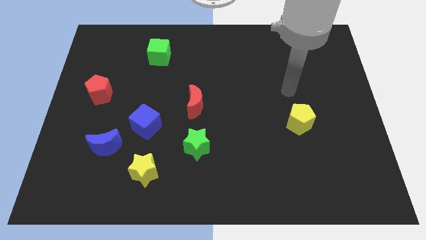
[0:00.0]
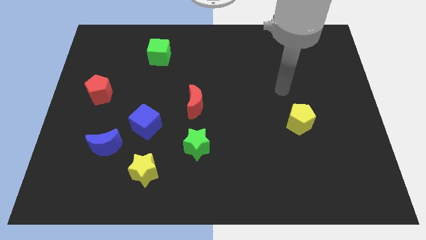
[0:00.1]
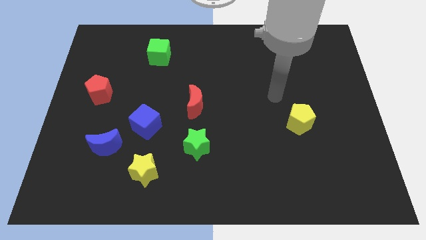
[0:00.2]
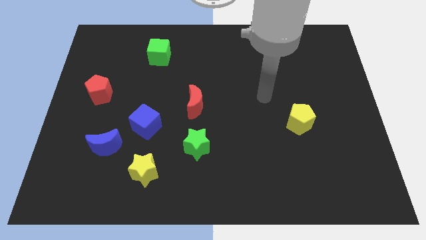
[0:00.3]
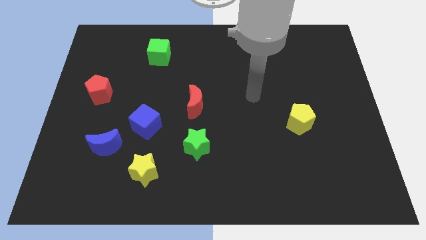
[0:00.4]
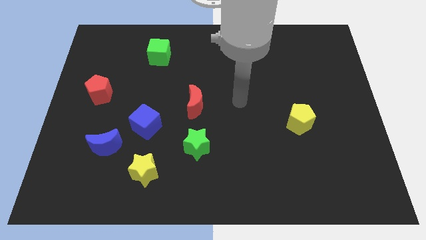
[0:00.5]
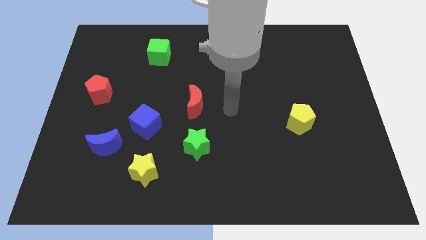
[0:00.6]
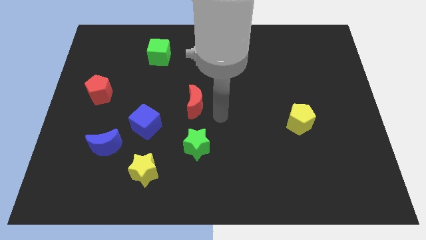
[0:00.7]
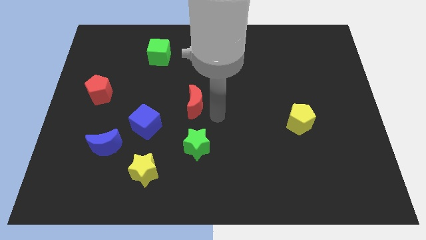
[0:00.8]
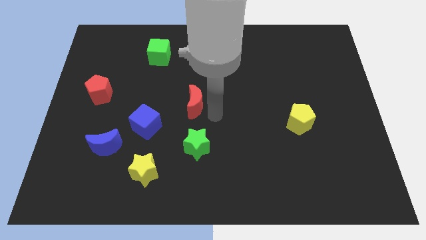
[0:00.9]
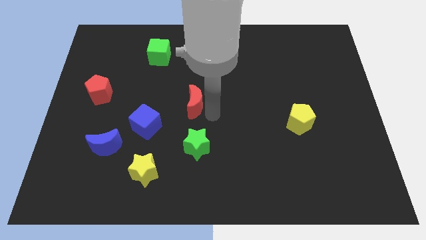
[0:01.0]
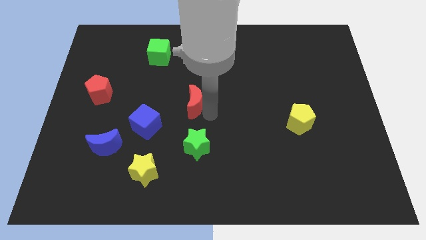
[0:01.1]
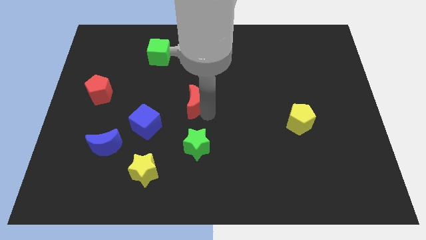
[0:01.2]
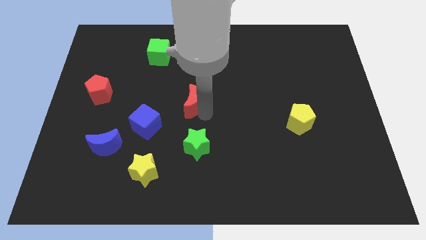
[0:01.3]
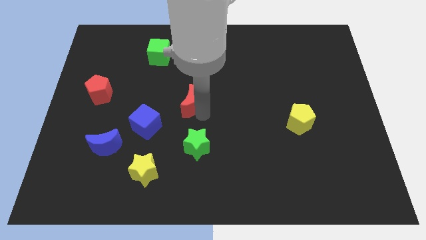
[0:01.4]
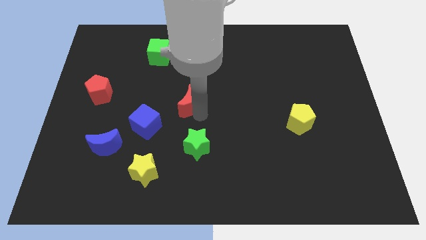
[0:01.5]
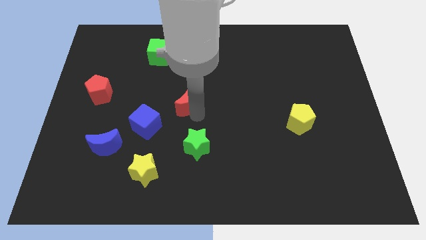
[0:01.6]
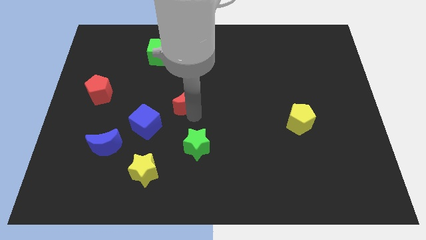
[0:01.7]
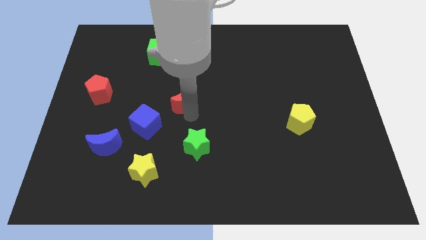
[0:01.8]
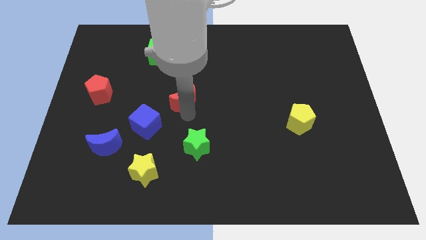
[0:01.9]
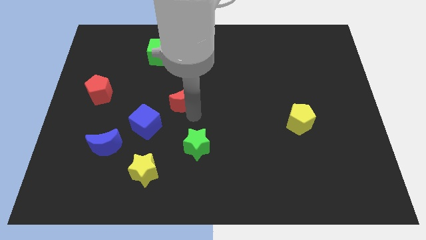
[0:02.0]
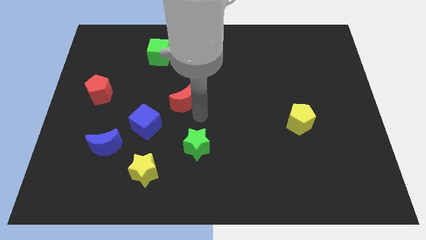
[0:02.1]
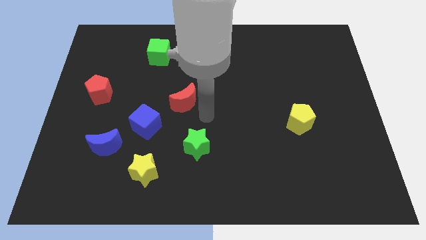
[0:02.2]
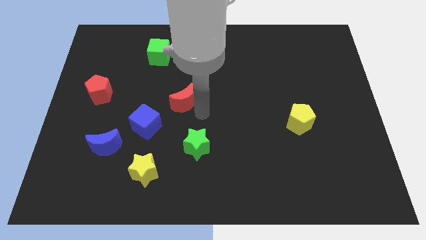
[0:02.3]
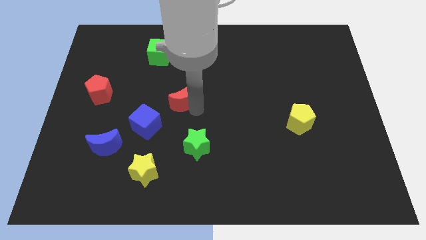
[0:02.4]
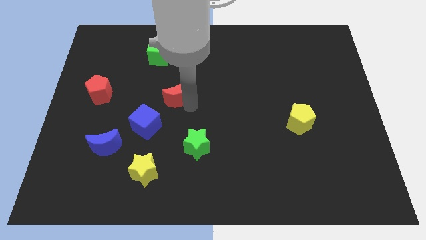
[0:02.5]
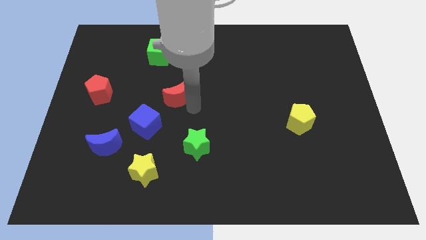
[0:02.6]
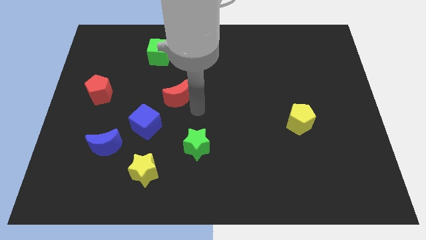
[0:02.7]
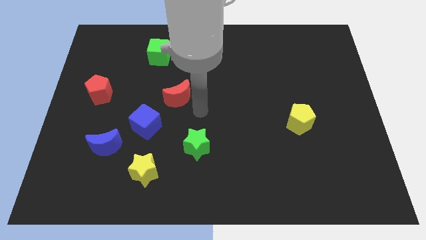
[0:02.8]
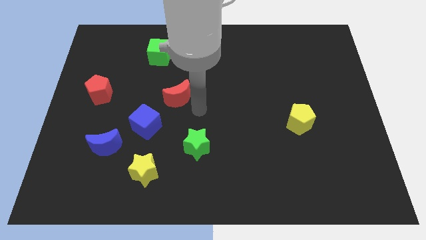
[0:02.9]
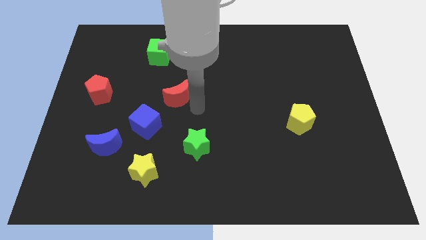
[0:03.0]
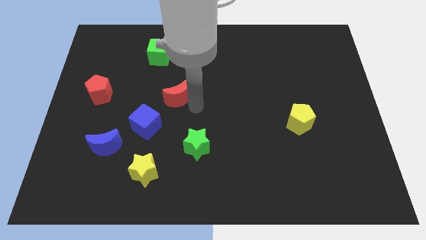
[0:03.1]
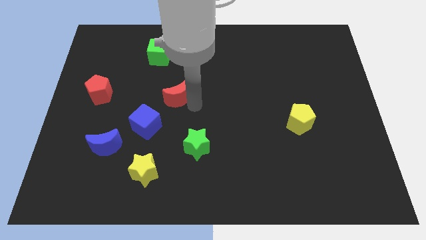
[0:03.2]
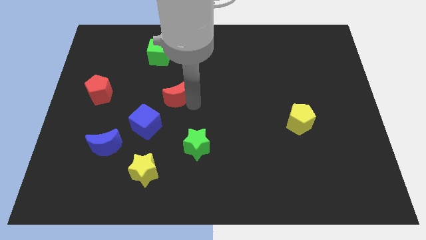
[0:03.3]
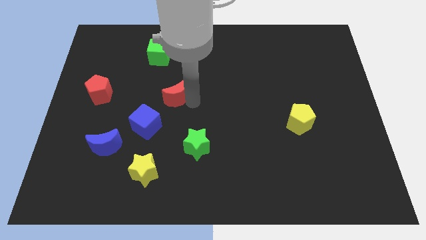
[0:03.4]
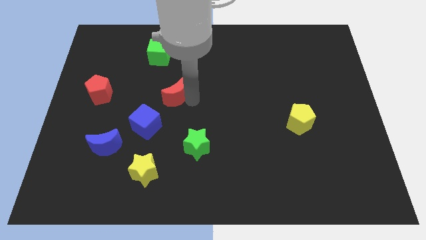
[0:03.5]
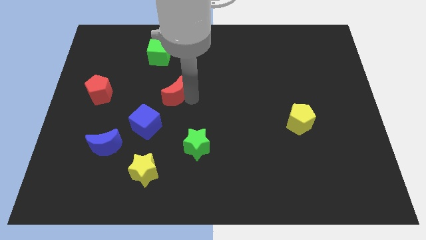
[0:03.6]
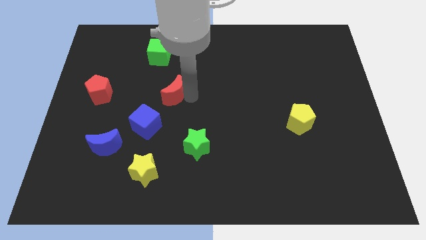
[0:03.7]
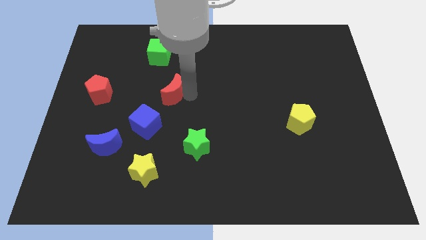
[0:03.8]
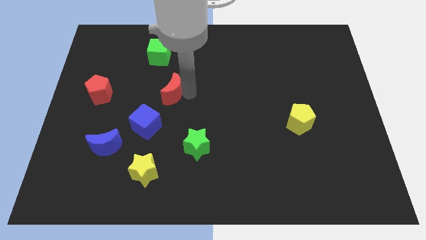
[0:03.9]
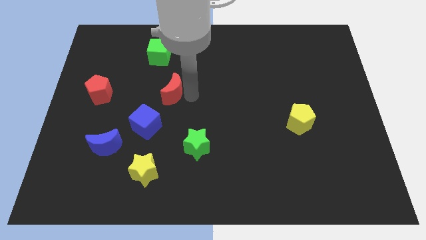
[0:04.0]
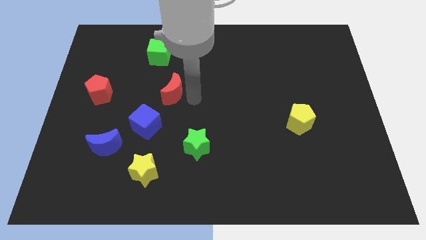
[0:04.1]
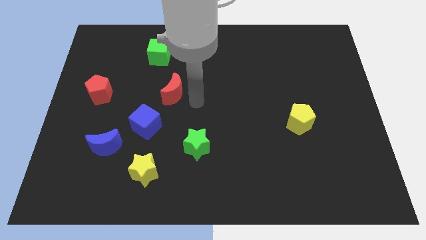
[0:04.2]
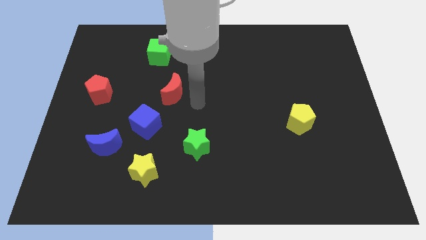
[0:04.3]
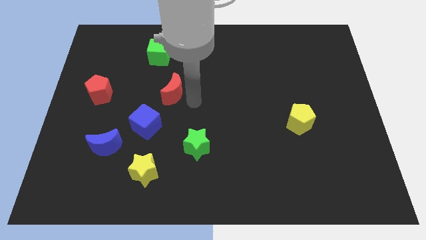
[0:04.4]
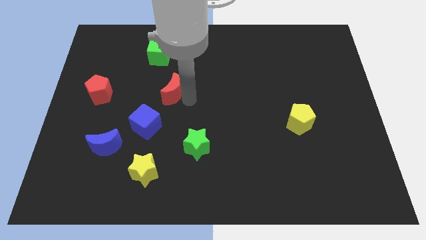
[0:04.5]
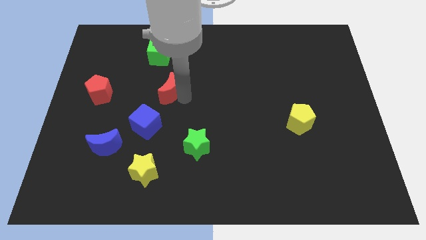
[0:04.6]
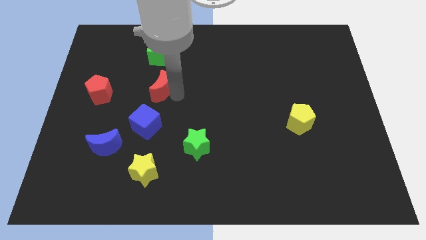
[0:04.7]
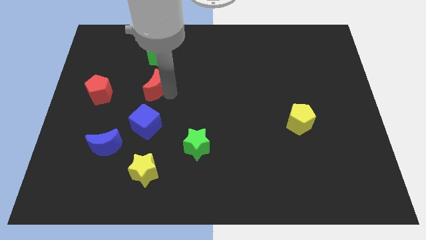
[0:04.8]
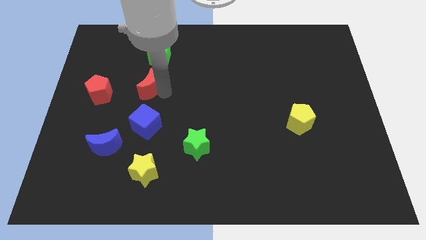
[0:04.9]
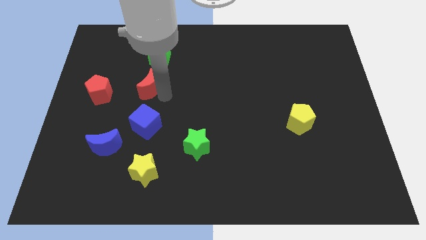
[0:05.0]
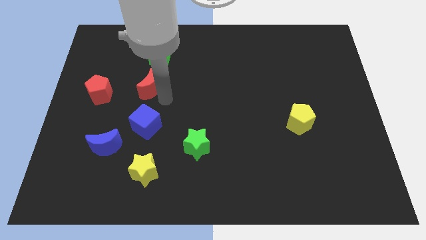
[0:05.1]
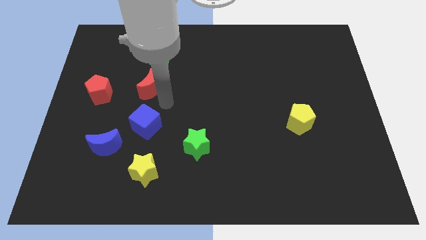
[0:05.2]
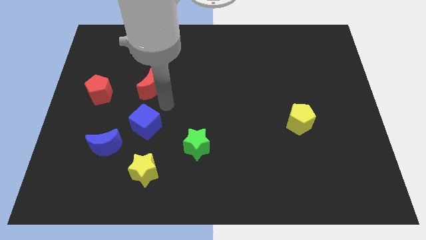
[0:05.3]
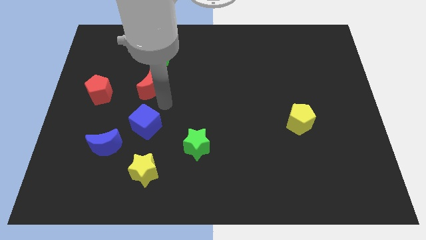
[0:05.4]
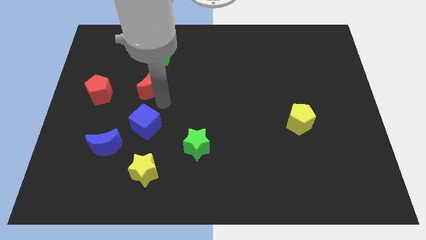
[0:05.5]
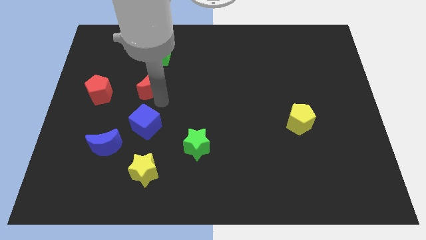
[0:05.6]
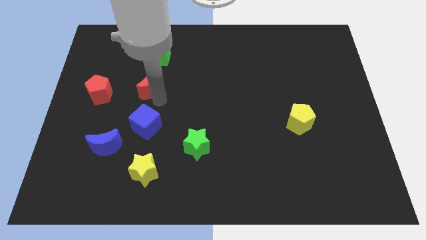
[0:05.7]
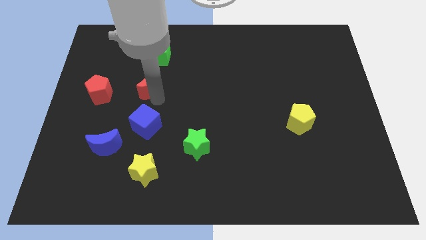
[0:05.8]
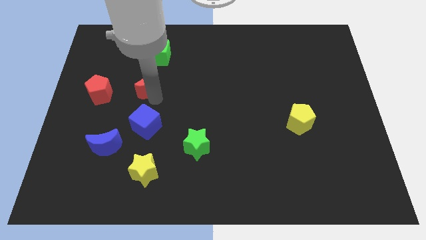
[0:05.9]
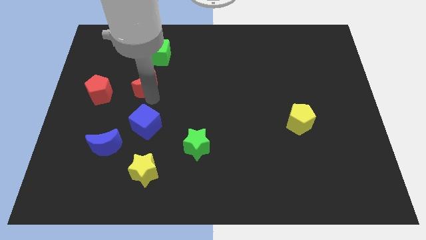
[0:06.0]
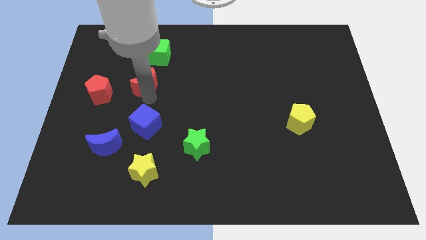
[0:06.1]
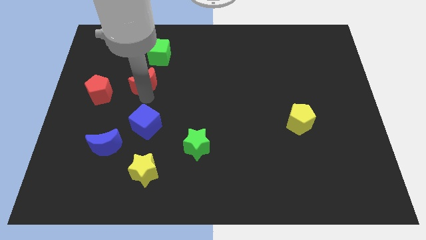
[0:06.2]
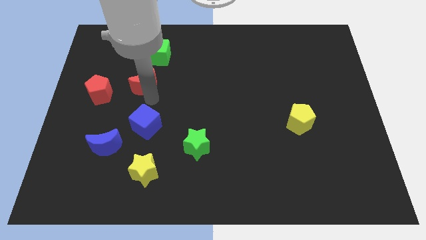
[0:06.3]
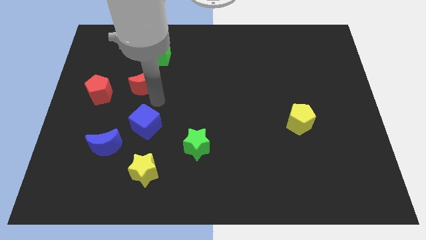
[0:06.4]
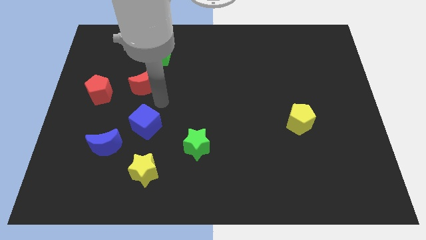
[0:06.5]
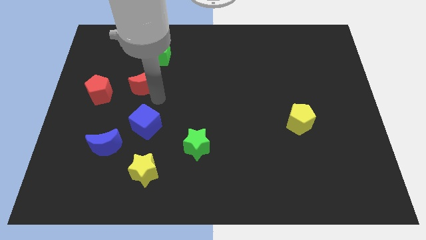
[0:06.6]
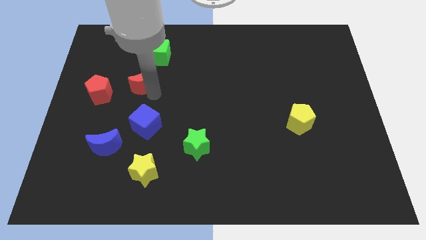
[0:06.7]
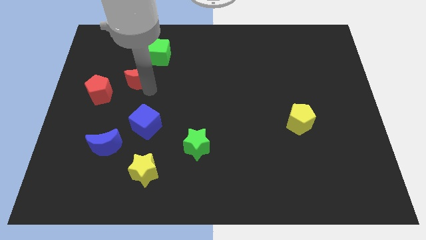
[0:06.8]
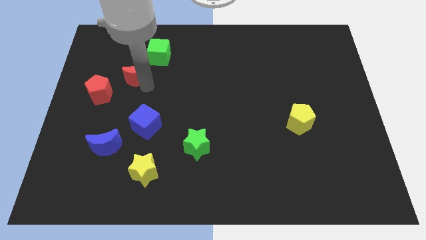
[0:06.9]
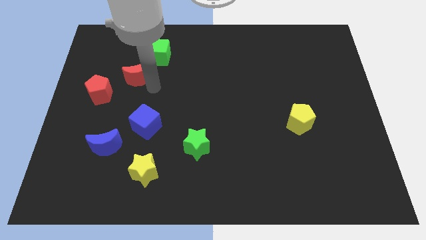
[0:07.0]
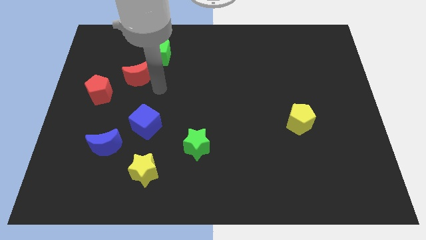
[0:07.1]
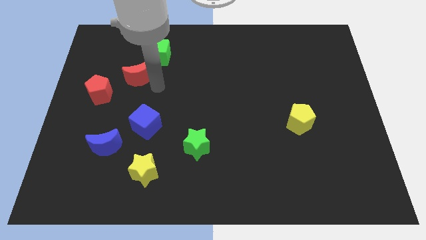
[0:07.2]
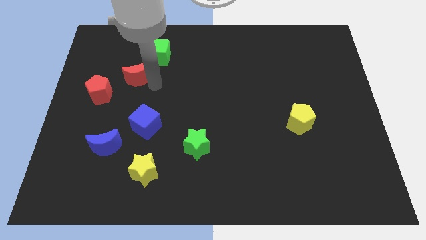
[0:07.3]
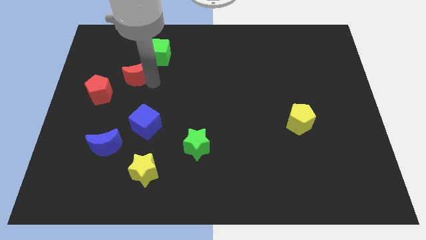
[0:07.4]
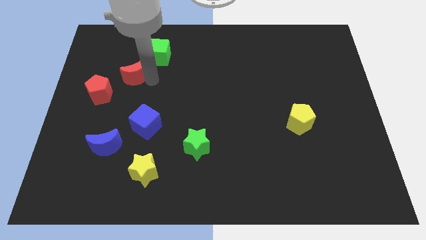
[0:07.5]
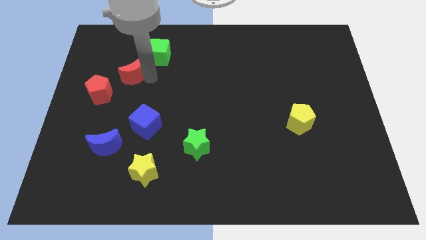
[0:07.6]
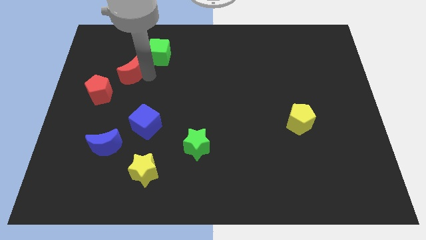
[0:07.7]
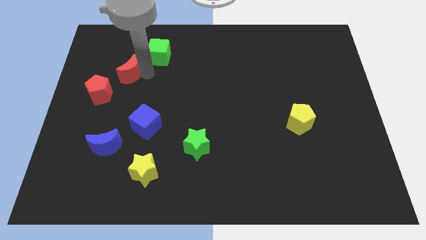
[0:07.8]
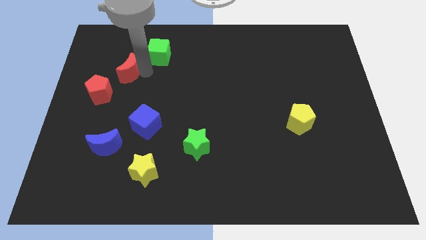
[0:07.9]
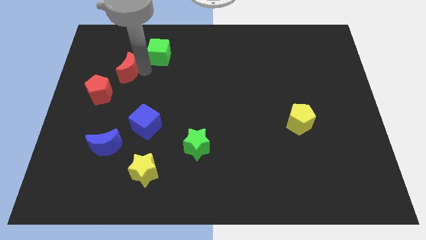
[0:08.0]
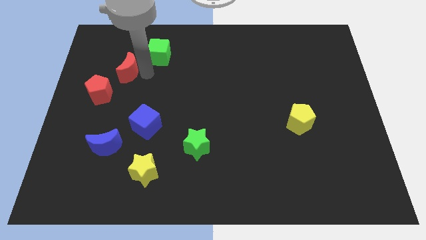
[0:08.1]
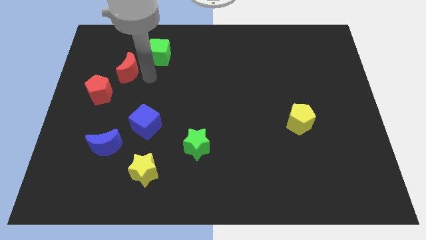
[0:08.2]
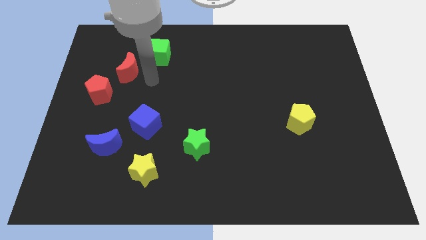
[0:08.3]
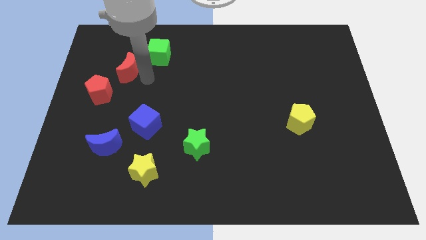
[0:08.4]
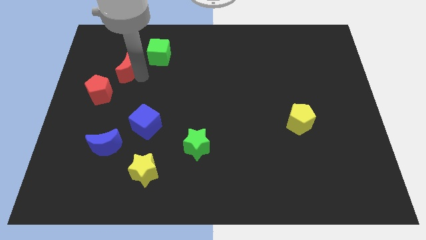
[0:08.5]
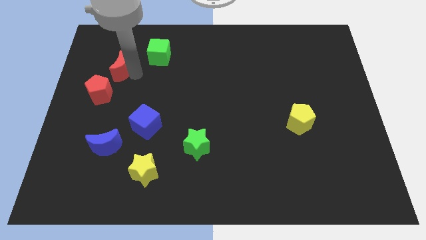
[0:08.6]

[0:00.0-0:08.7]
put the red moon to the top side of the red pentagon
